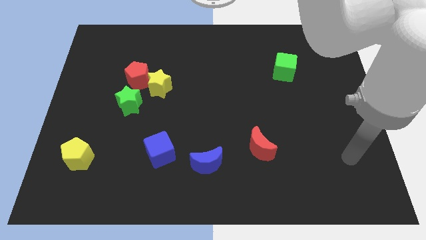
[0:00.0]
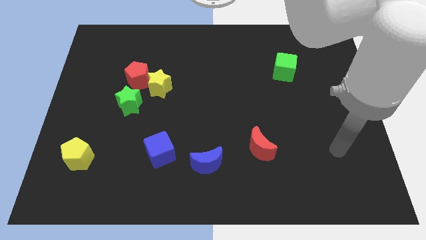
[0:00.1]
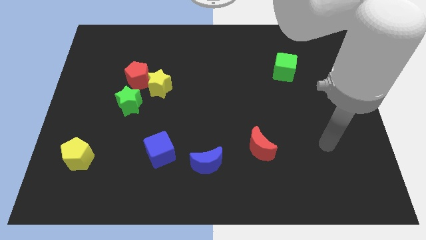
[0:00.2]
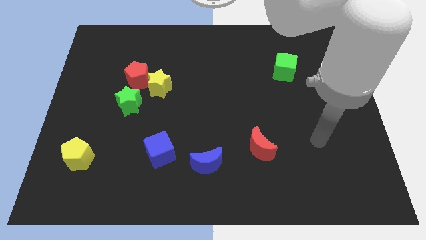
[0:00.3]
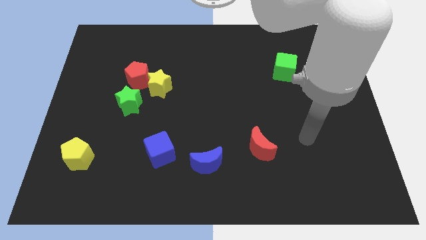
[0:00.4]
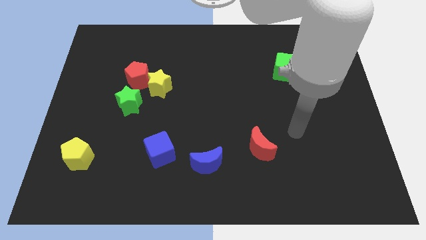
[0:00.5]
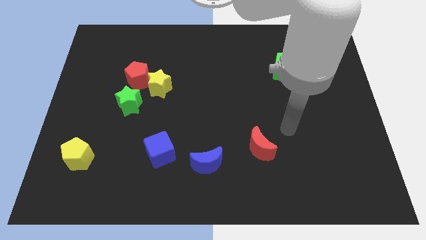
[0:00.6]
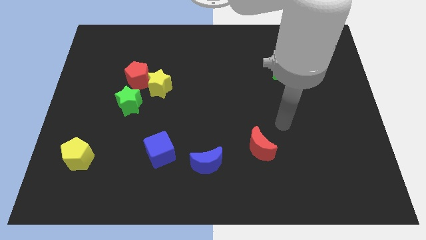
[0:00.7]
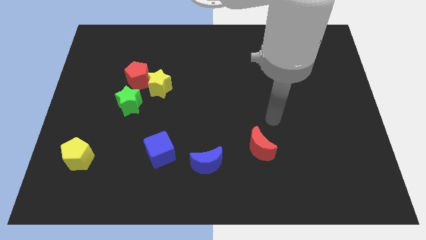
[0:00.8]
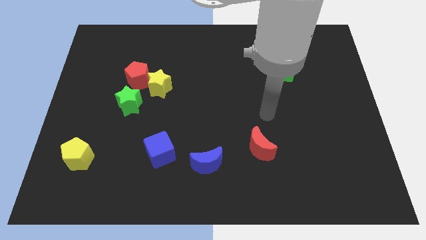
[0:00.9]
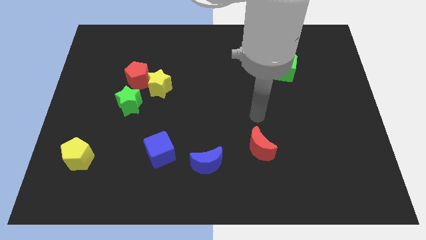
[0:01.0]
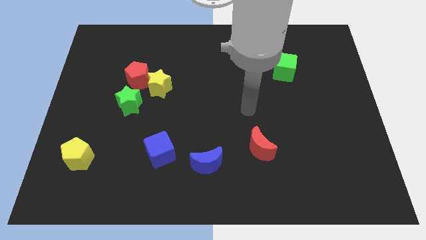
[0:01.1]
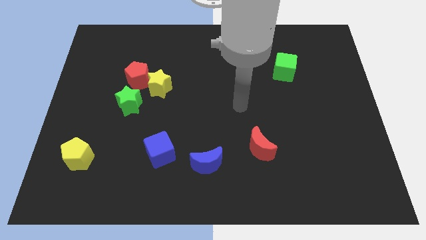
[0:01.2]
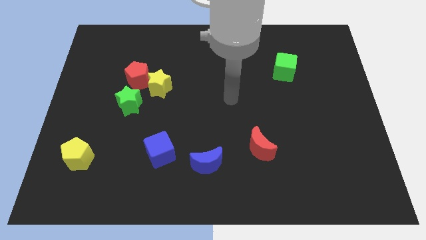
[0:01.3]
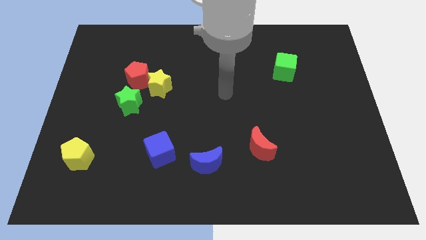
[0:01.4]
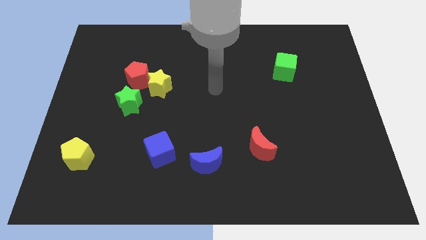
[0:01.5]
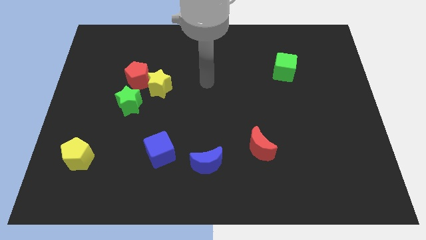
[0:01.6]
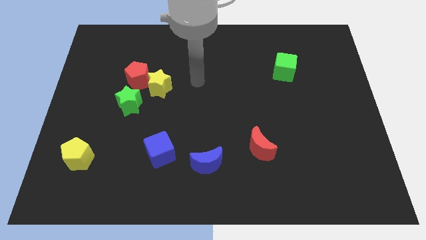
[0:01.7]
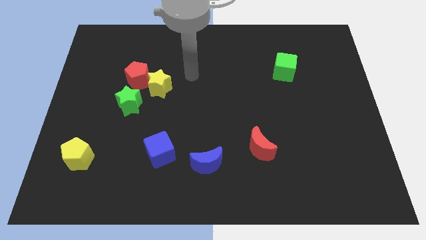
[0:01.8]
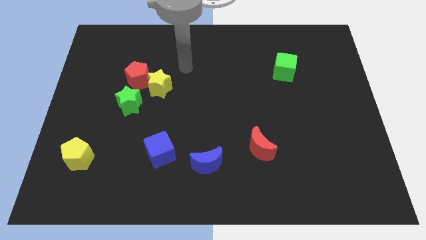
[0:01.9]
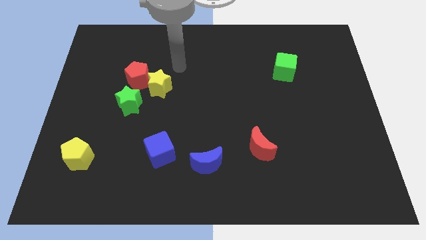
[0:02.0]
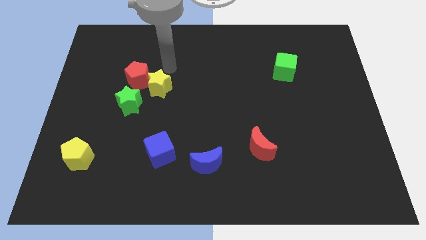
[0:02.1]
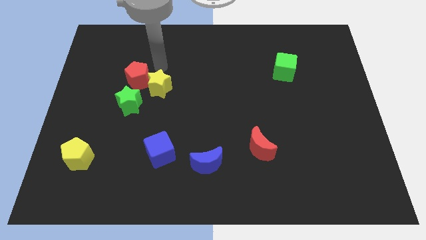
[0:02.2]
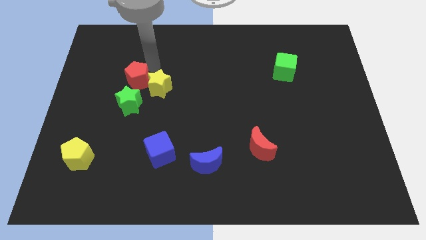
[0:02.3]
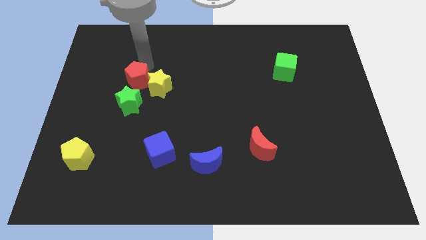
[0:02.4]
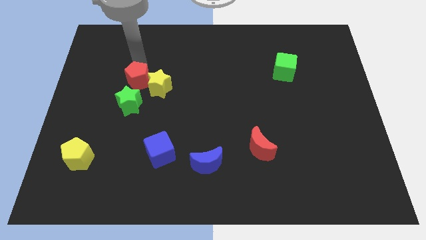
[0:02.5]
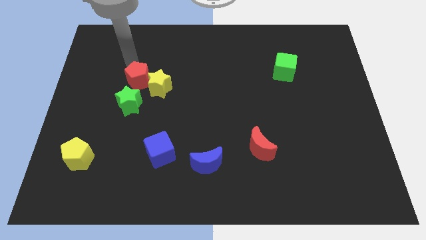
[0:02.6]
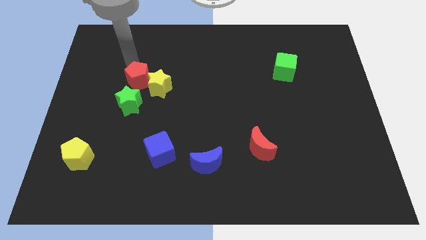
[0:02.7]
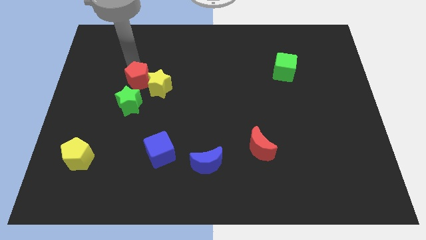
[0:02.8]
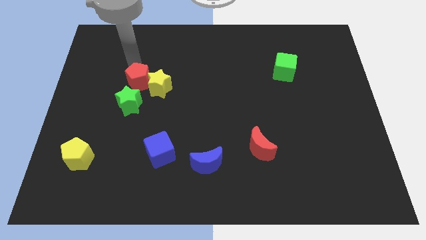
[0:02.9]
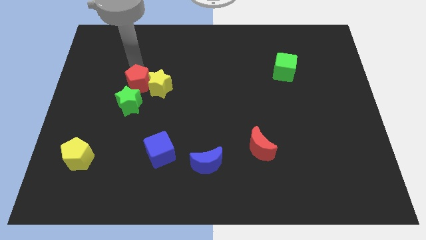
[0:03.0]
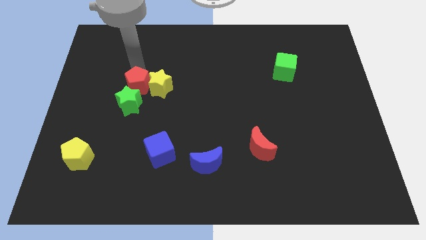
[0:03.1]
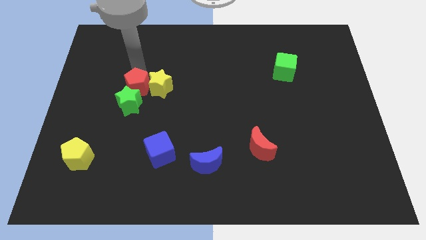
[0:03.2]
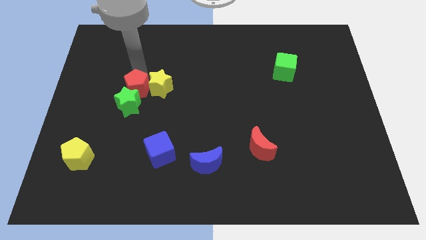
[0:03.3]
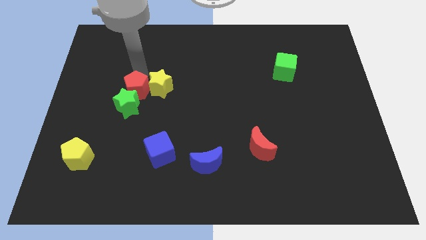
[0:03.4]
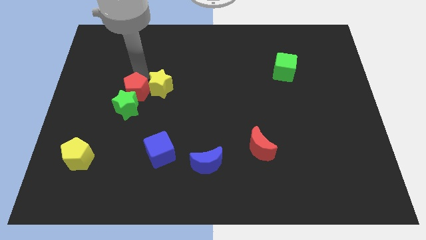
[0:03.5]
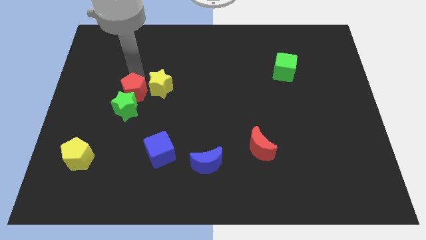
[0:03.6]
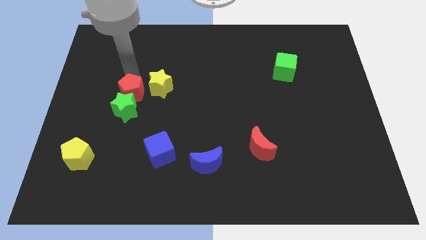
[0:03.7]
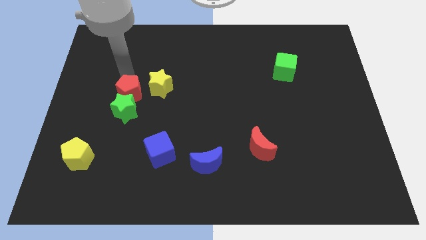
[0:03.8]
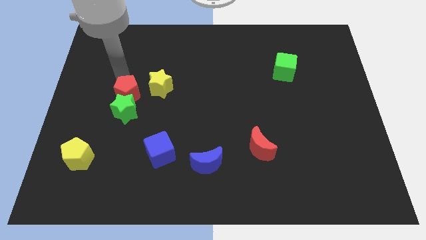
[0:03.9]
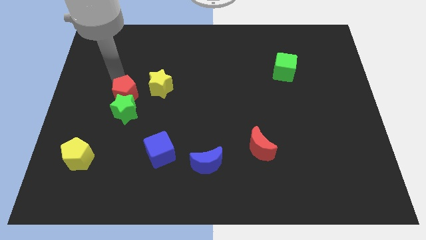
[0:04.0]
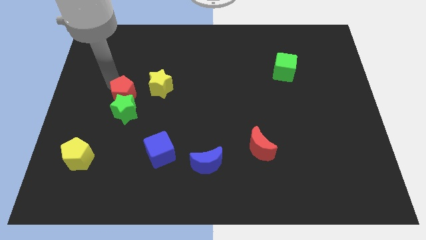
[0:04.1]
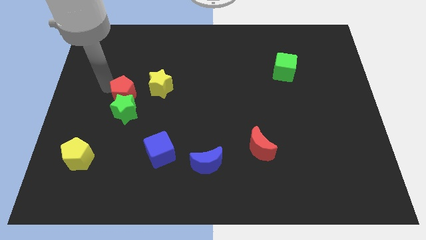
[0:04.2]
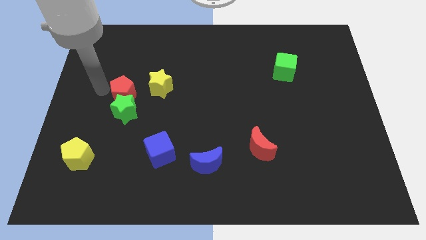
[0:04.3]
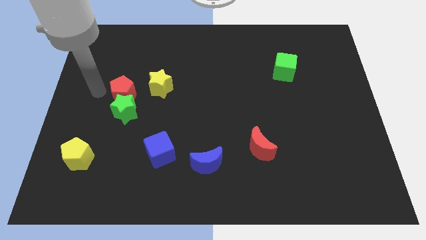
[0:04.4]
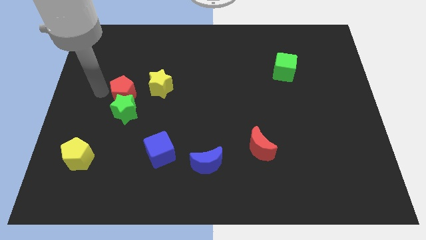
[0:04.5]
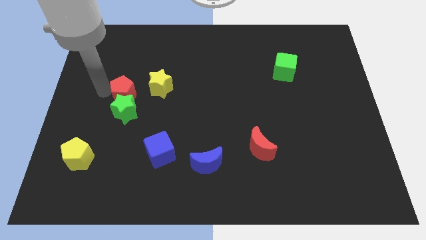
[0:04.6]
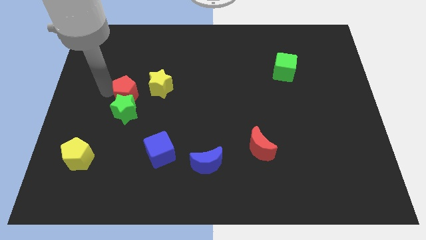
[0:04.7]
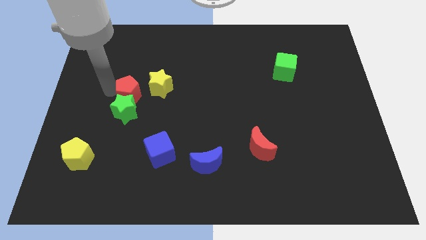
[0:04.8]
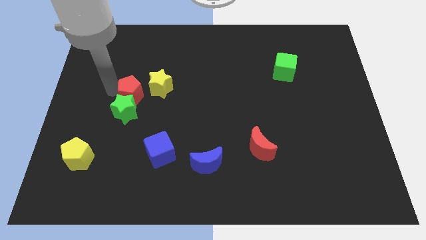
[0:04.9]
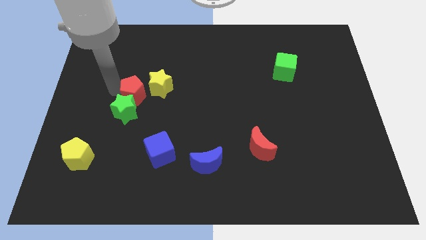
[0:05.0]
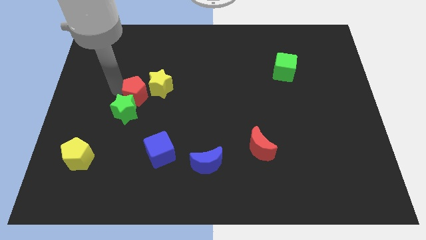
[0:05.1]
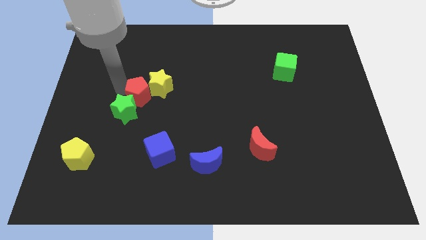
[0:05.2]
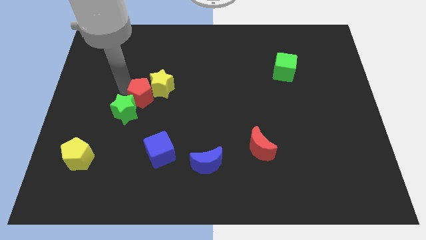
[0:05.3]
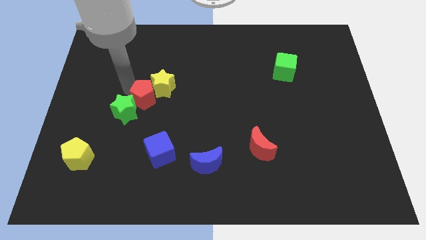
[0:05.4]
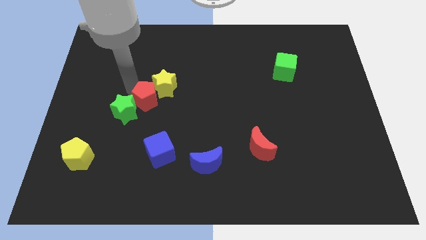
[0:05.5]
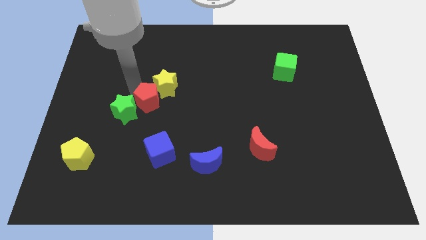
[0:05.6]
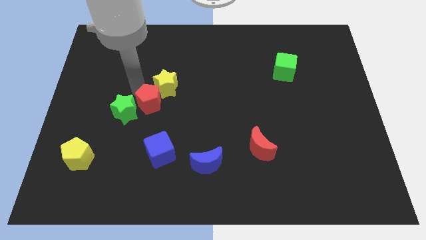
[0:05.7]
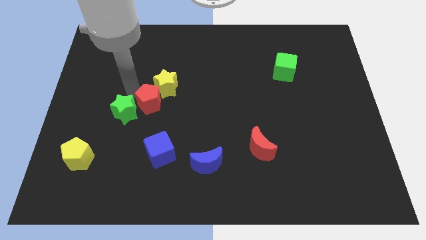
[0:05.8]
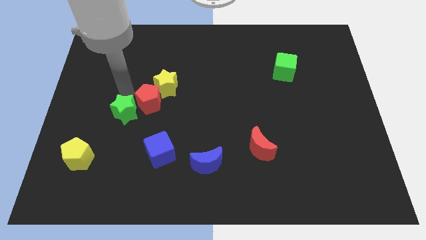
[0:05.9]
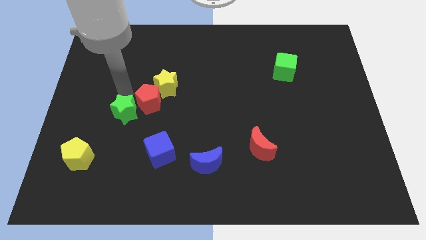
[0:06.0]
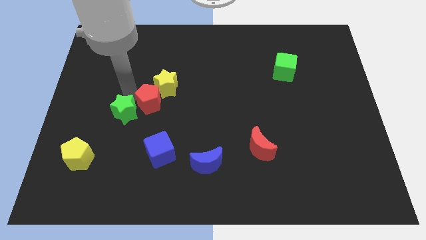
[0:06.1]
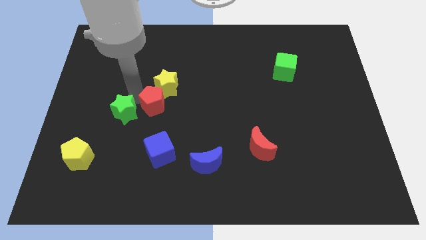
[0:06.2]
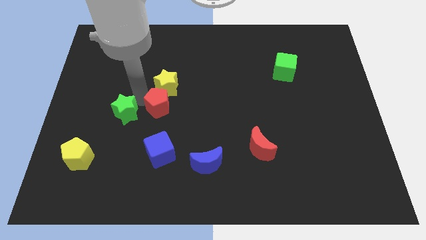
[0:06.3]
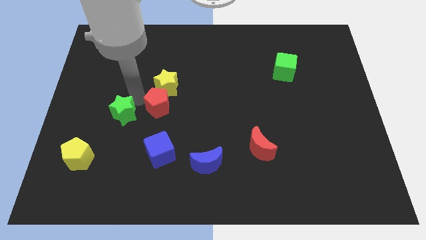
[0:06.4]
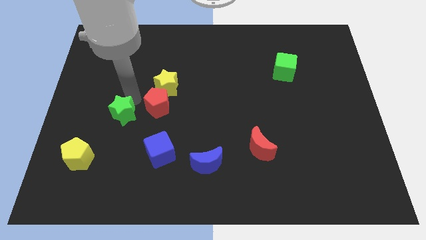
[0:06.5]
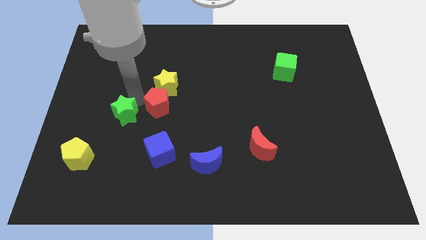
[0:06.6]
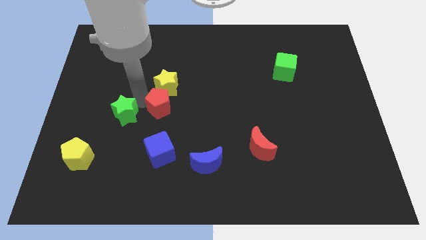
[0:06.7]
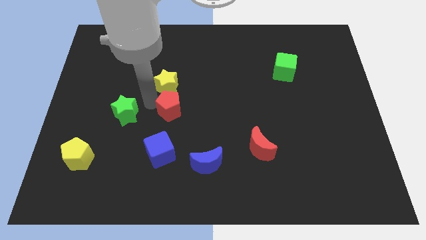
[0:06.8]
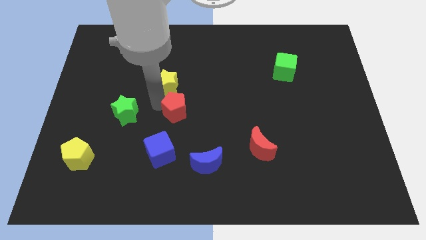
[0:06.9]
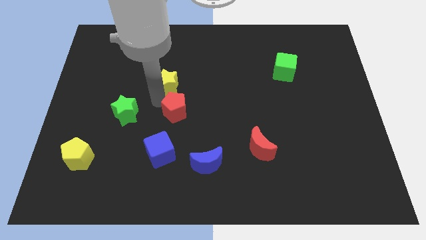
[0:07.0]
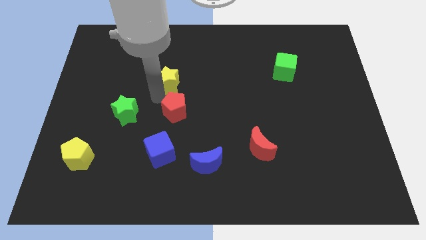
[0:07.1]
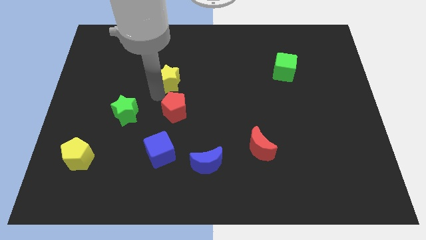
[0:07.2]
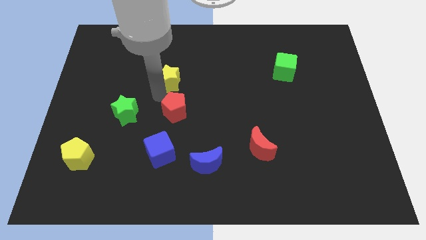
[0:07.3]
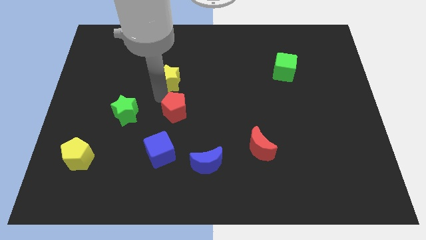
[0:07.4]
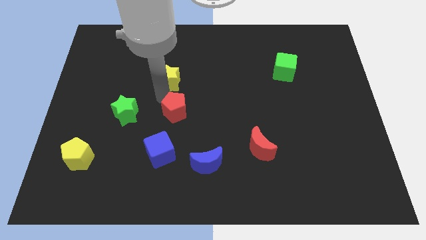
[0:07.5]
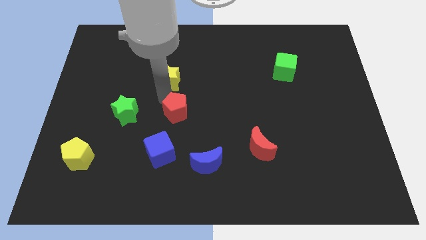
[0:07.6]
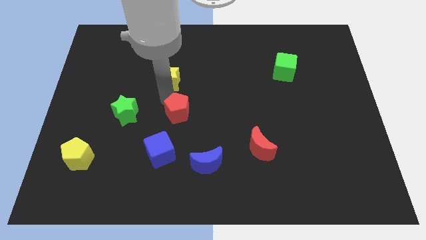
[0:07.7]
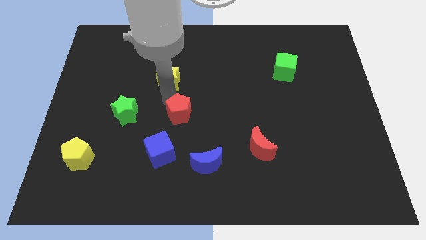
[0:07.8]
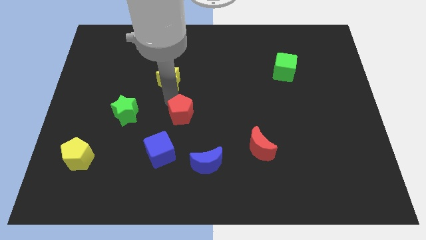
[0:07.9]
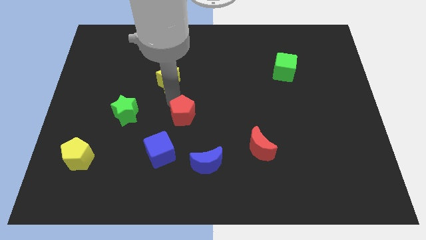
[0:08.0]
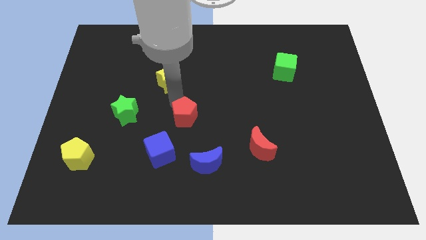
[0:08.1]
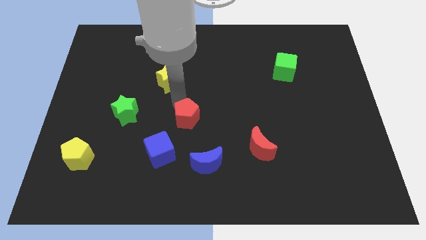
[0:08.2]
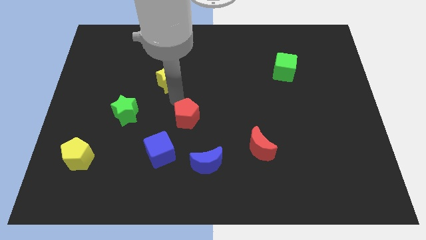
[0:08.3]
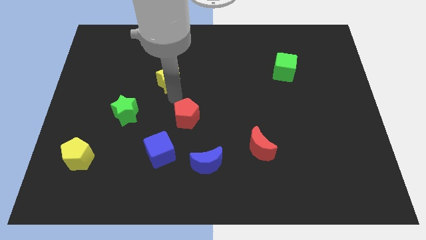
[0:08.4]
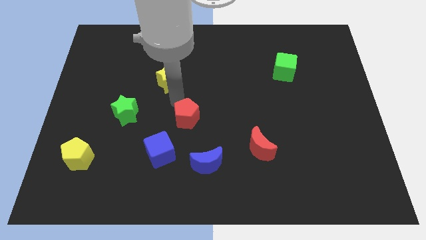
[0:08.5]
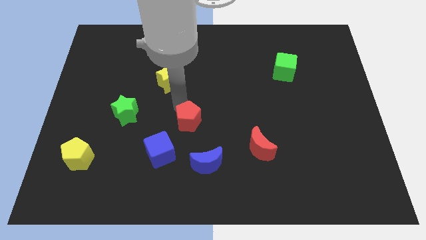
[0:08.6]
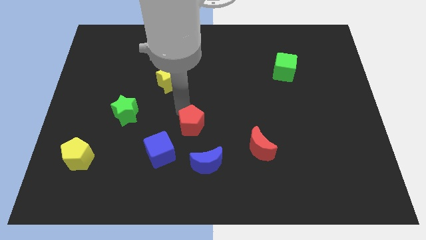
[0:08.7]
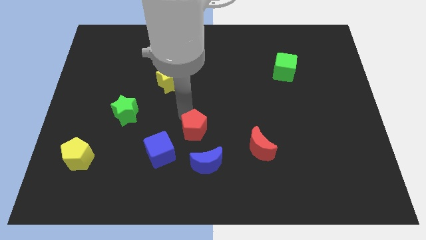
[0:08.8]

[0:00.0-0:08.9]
push the red pentagon down and right diagonally
